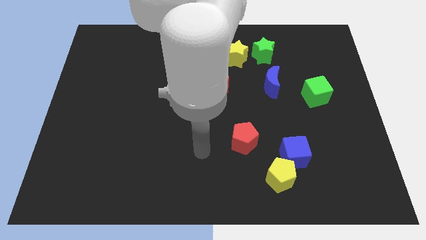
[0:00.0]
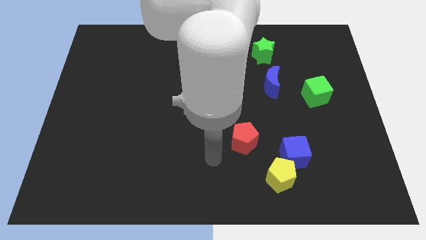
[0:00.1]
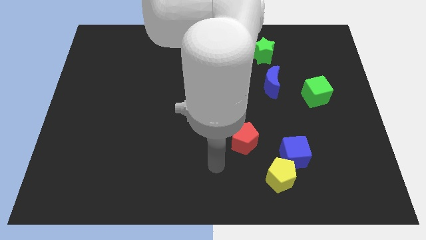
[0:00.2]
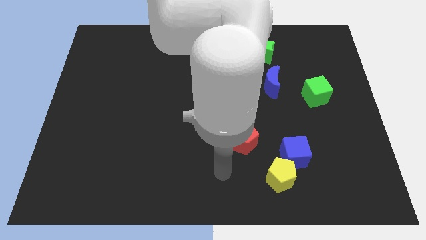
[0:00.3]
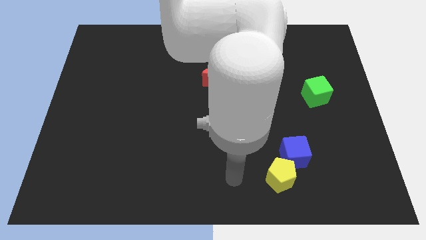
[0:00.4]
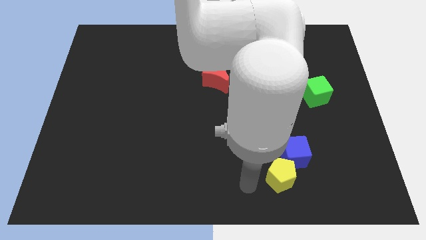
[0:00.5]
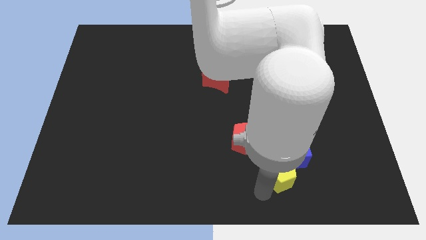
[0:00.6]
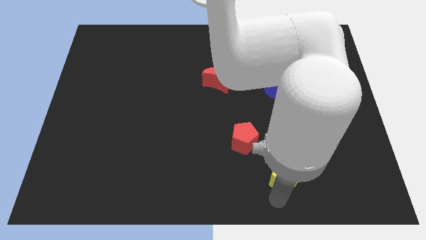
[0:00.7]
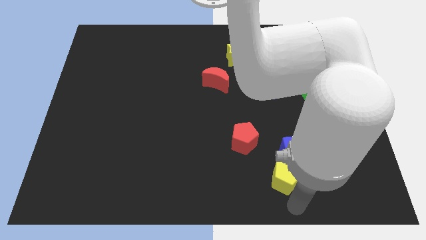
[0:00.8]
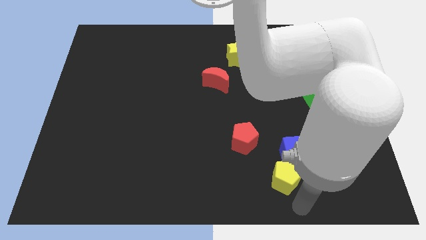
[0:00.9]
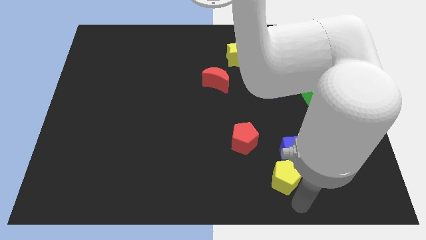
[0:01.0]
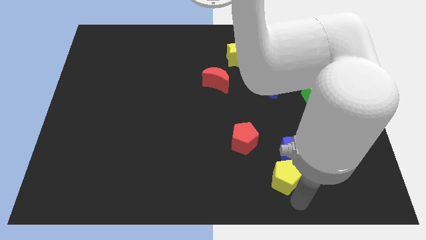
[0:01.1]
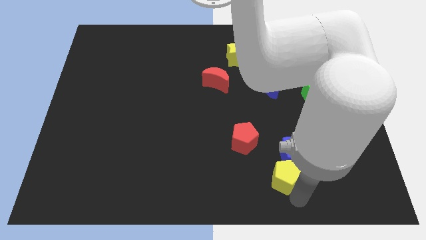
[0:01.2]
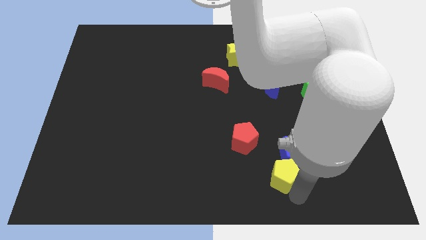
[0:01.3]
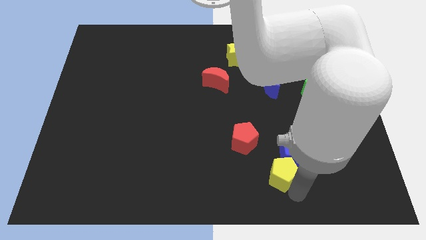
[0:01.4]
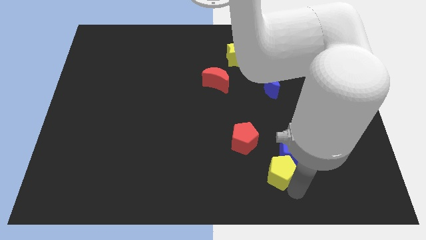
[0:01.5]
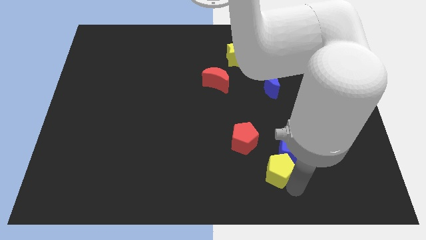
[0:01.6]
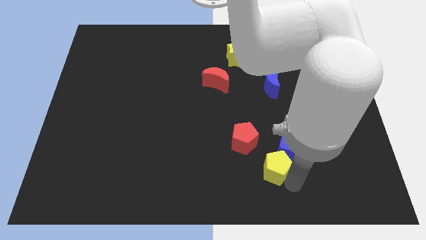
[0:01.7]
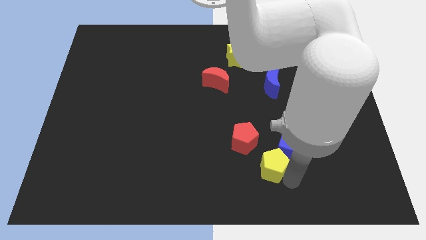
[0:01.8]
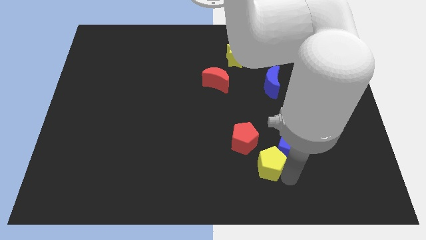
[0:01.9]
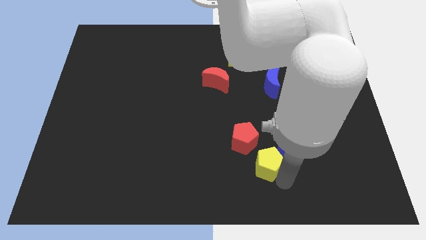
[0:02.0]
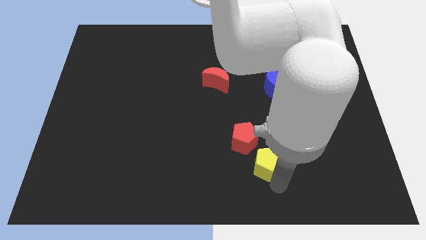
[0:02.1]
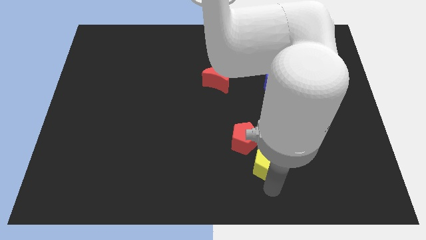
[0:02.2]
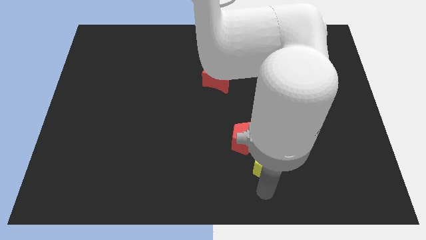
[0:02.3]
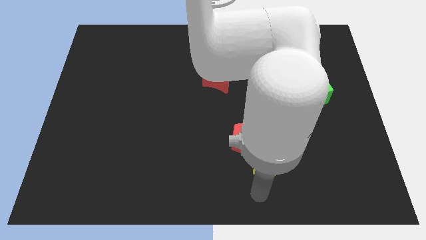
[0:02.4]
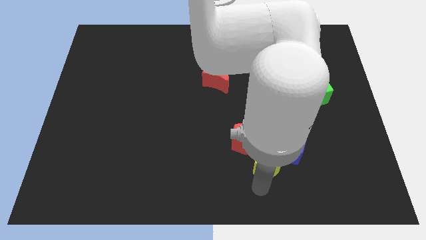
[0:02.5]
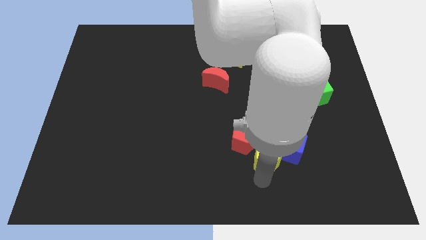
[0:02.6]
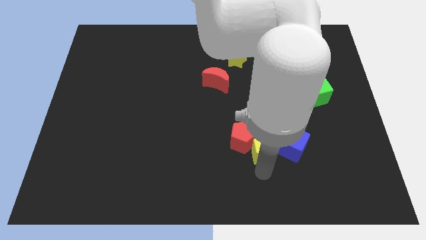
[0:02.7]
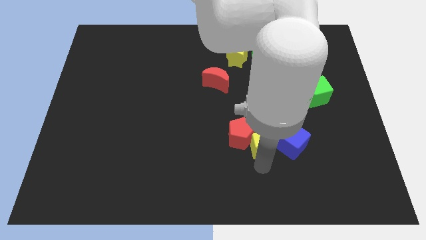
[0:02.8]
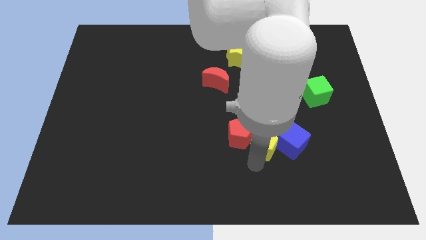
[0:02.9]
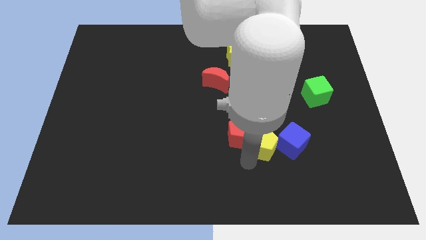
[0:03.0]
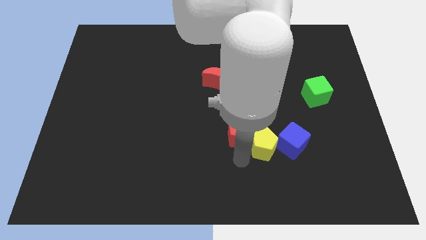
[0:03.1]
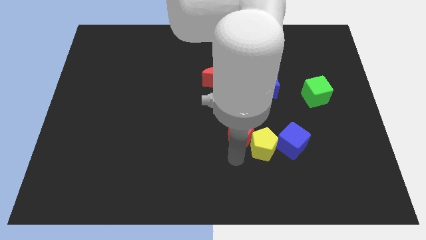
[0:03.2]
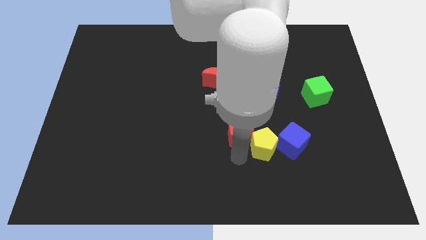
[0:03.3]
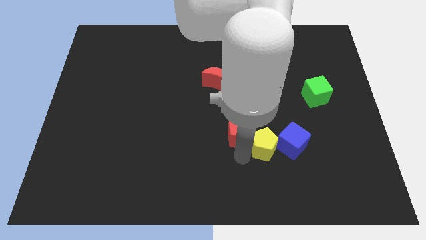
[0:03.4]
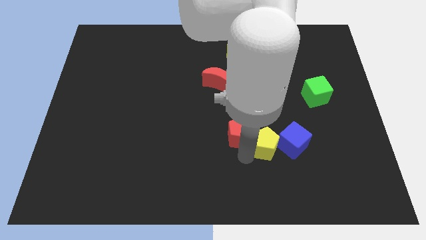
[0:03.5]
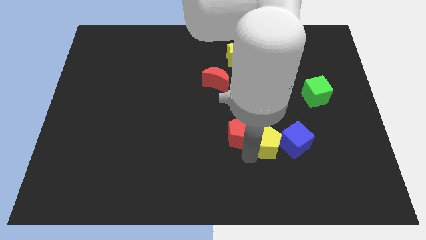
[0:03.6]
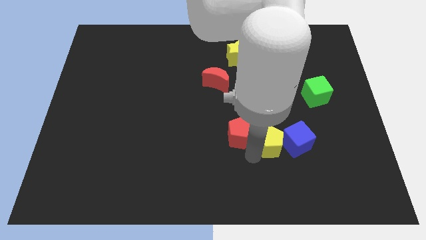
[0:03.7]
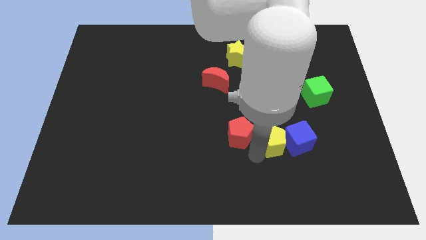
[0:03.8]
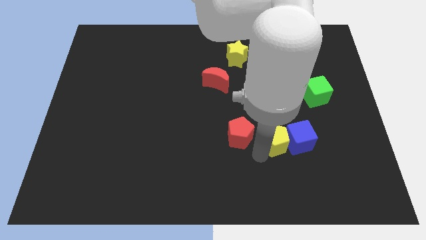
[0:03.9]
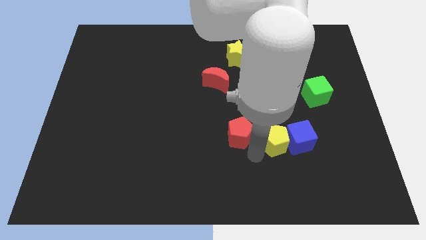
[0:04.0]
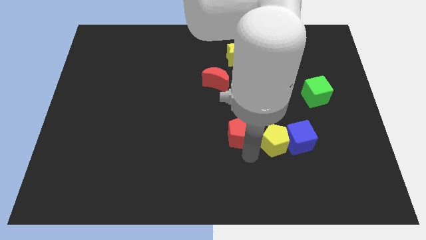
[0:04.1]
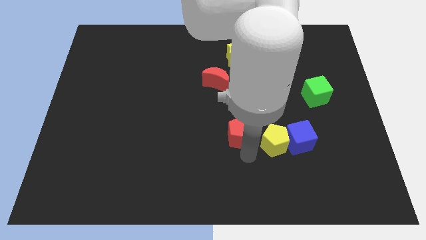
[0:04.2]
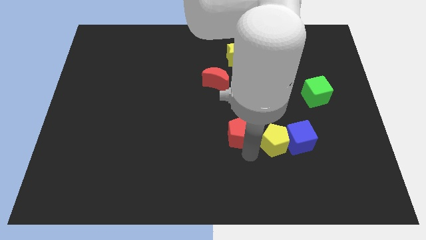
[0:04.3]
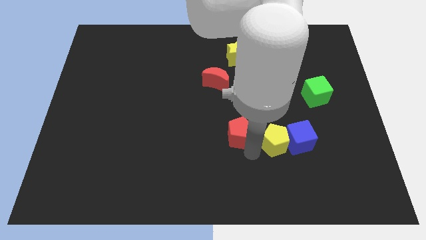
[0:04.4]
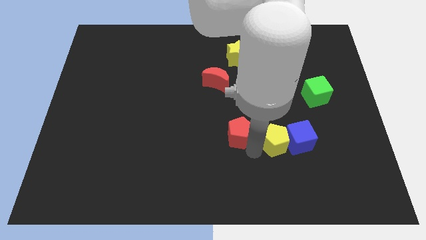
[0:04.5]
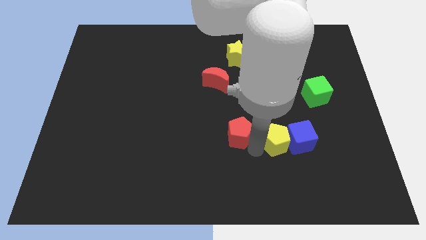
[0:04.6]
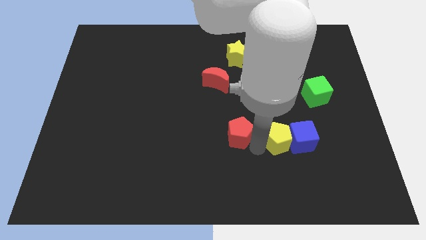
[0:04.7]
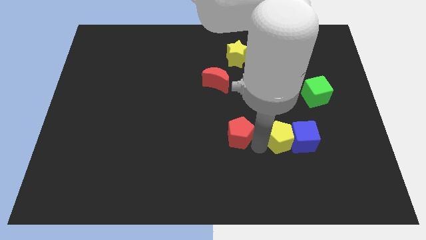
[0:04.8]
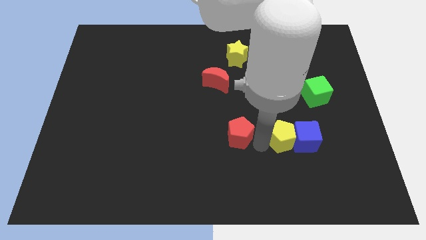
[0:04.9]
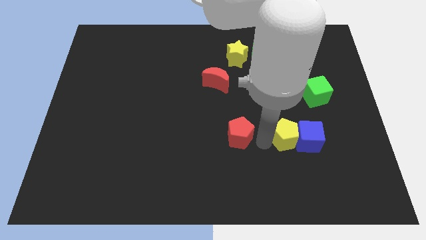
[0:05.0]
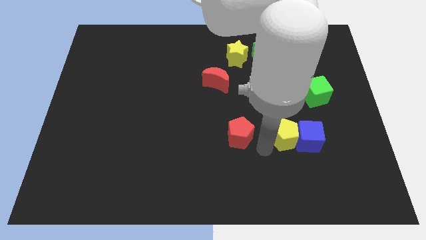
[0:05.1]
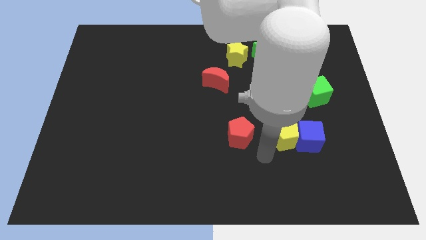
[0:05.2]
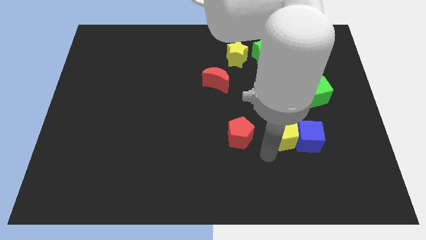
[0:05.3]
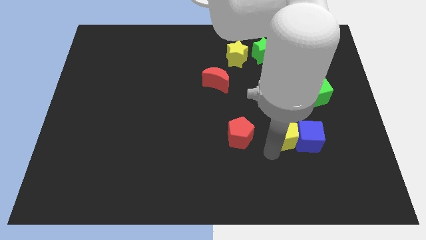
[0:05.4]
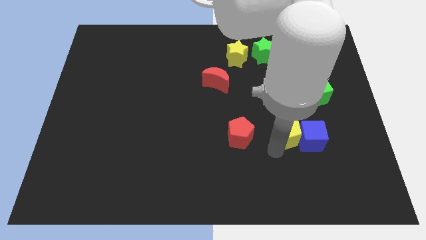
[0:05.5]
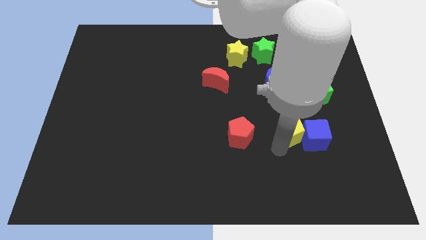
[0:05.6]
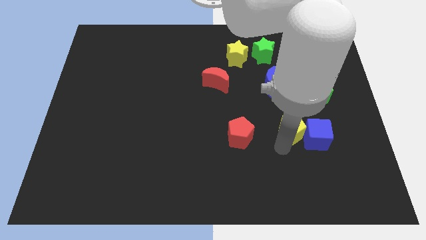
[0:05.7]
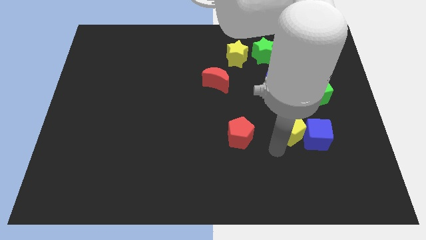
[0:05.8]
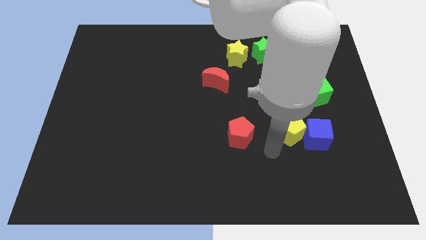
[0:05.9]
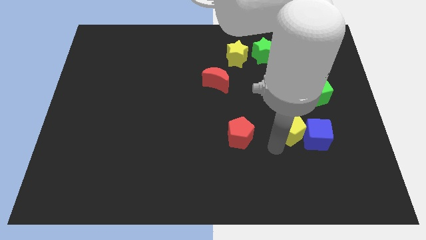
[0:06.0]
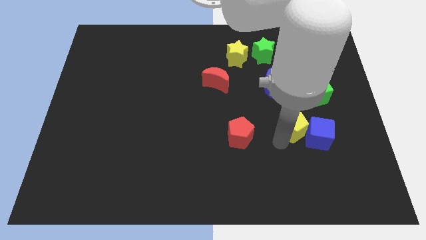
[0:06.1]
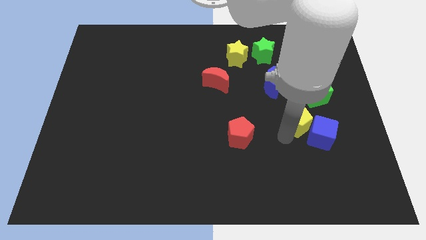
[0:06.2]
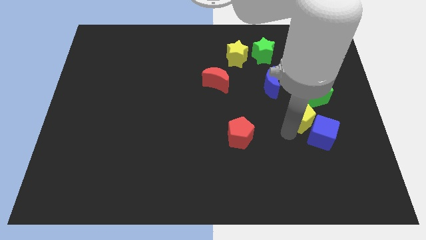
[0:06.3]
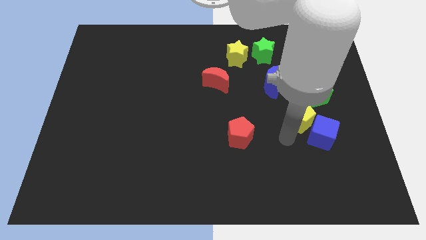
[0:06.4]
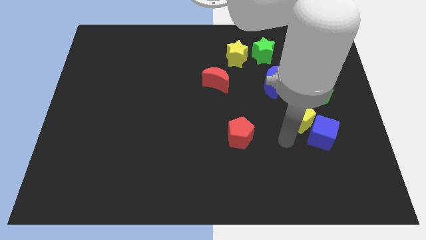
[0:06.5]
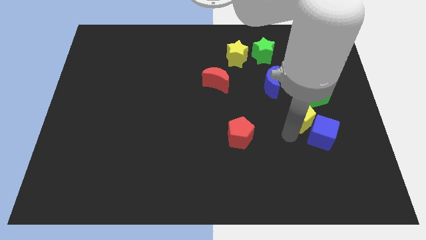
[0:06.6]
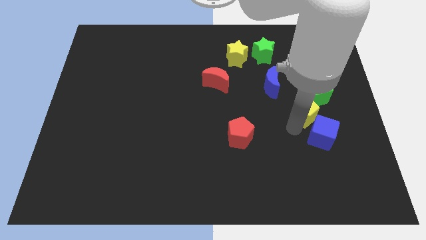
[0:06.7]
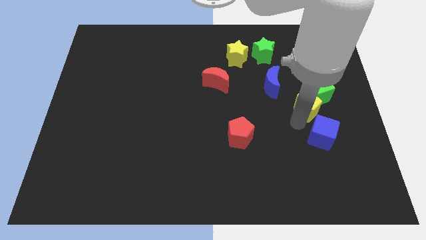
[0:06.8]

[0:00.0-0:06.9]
push the yellow pentagon to the green cube

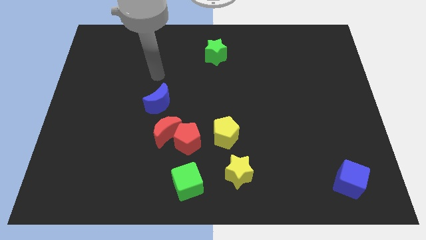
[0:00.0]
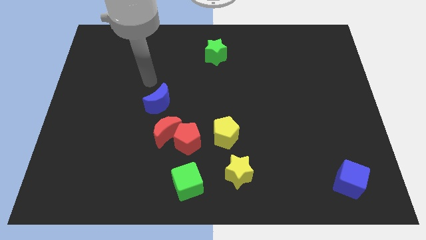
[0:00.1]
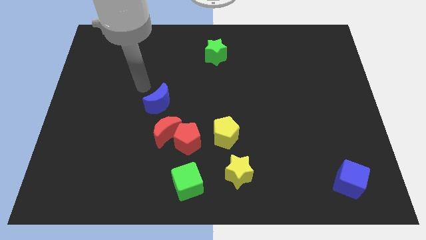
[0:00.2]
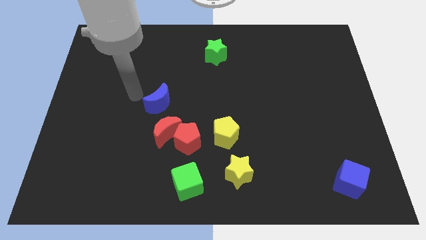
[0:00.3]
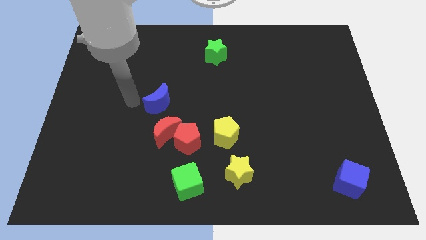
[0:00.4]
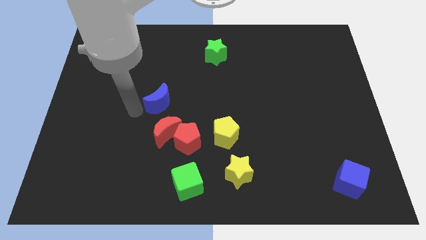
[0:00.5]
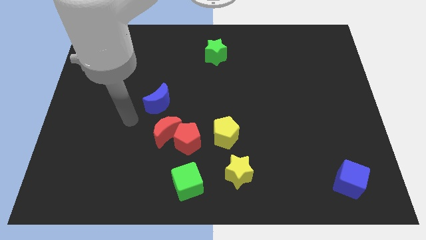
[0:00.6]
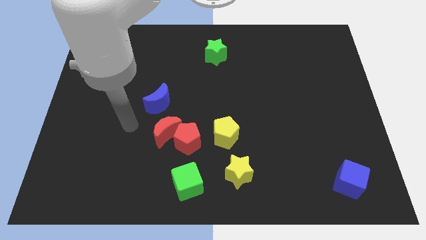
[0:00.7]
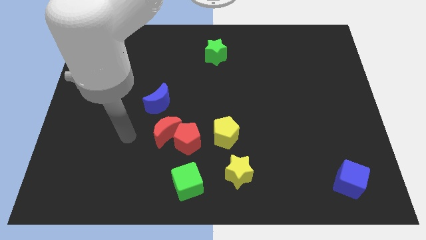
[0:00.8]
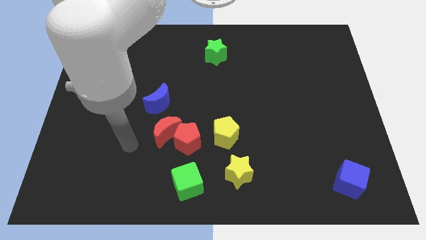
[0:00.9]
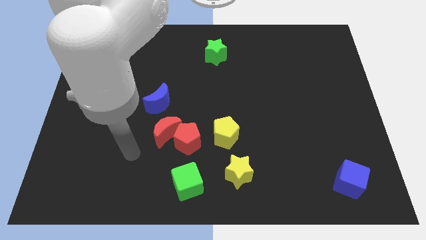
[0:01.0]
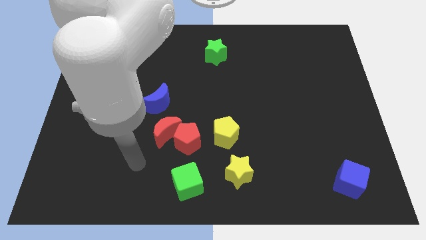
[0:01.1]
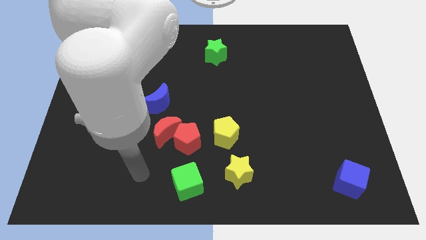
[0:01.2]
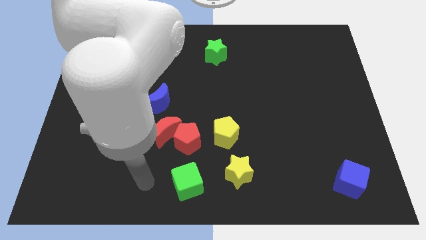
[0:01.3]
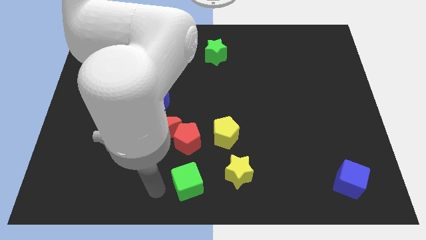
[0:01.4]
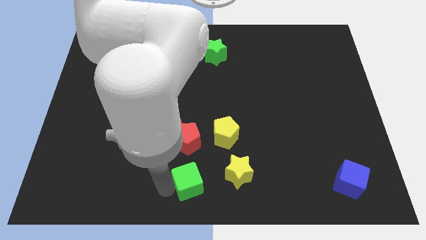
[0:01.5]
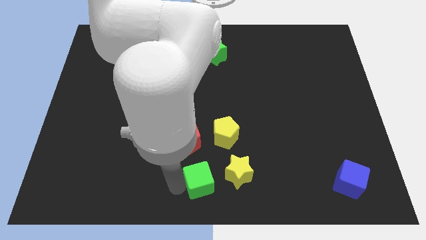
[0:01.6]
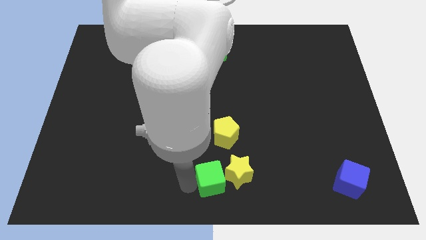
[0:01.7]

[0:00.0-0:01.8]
push the green cube towards the yellow star
